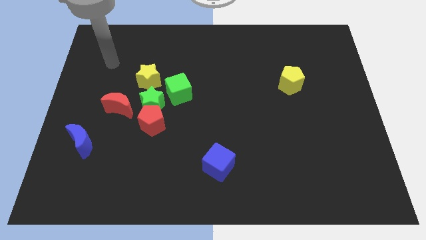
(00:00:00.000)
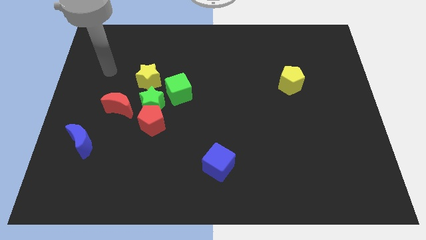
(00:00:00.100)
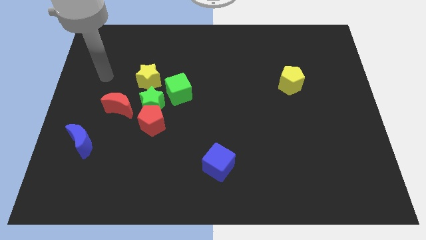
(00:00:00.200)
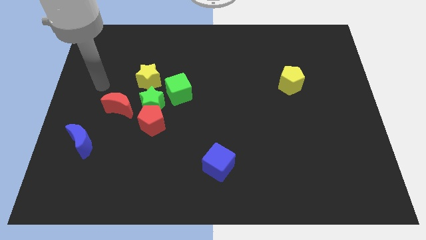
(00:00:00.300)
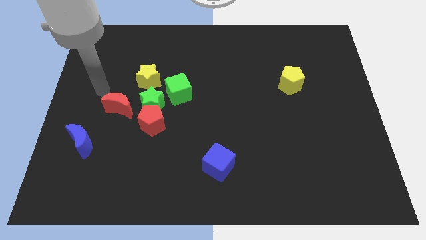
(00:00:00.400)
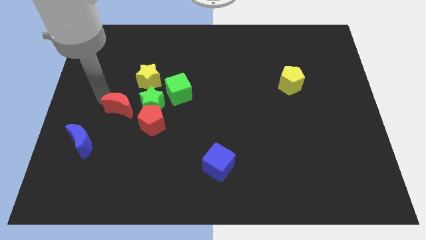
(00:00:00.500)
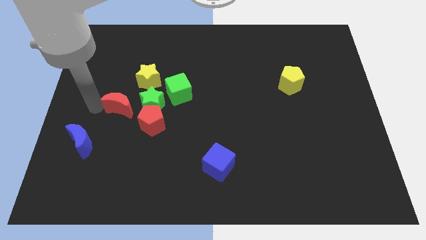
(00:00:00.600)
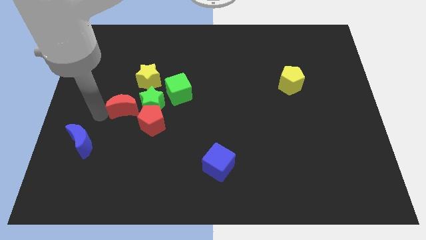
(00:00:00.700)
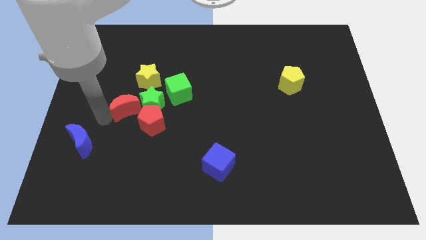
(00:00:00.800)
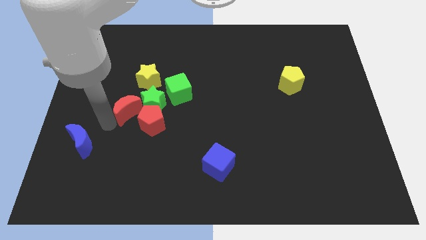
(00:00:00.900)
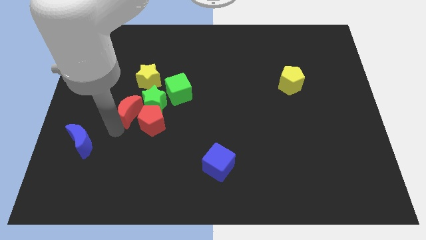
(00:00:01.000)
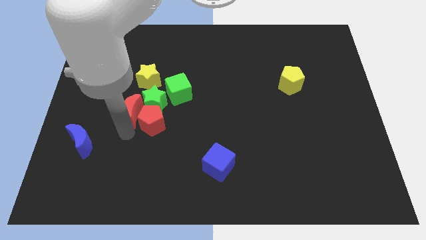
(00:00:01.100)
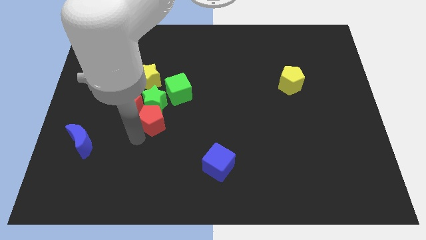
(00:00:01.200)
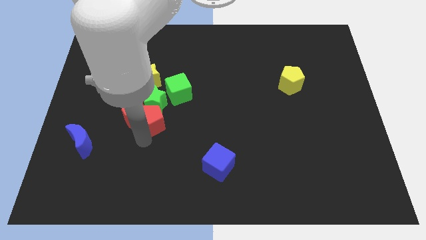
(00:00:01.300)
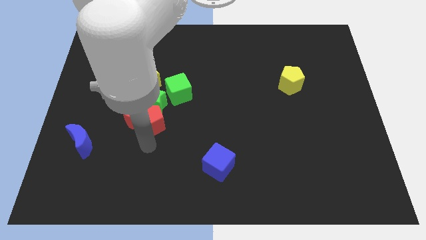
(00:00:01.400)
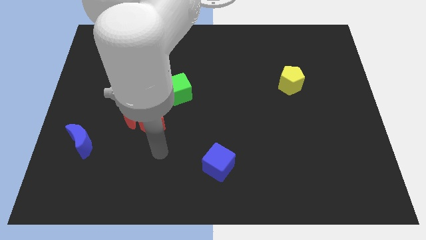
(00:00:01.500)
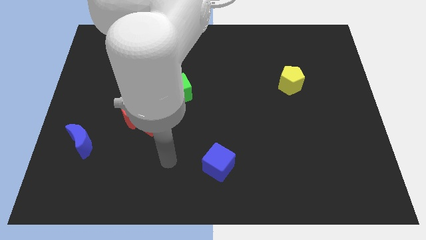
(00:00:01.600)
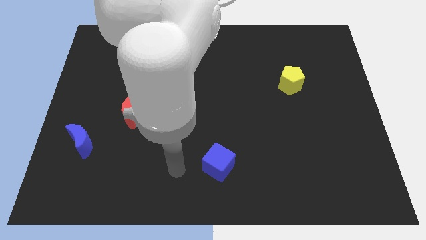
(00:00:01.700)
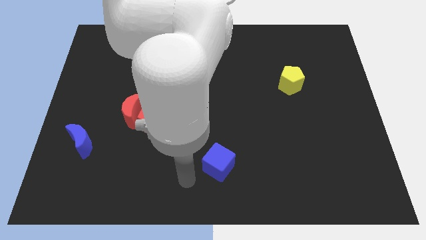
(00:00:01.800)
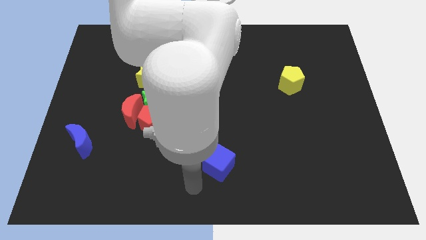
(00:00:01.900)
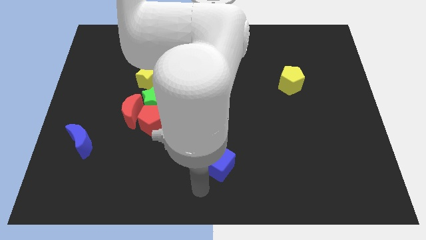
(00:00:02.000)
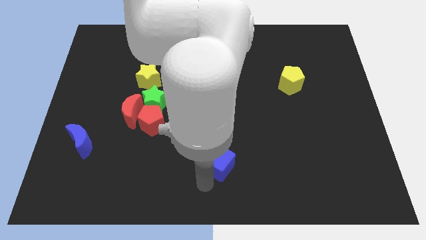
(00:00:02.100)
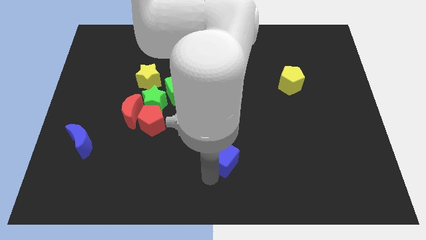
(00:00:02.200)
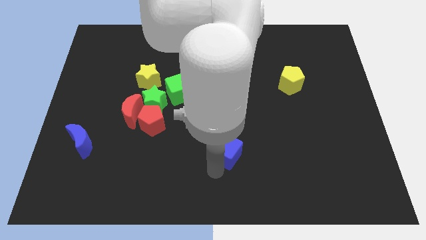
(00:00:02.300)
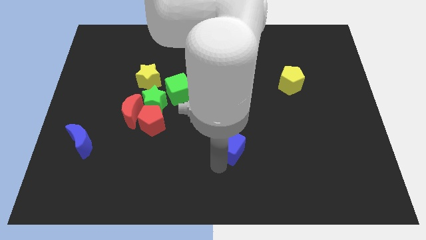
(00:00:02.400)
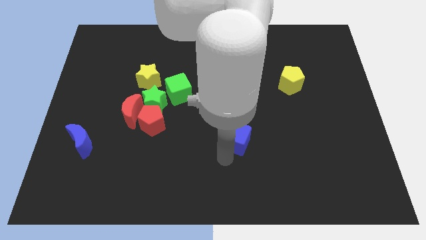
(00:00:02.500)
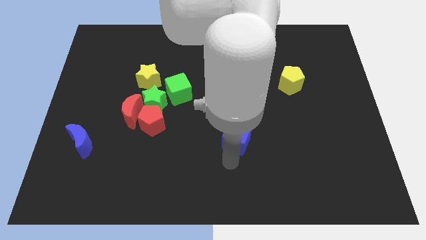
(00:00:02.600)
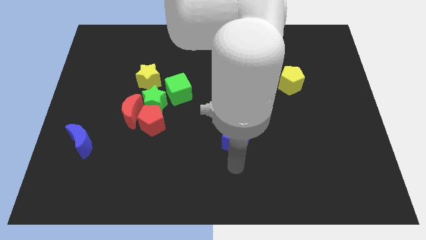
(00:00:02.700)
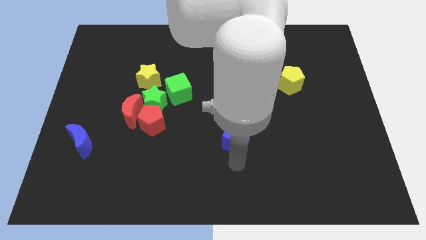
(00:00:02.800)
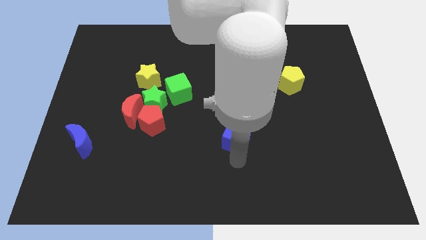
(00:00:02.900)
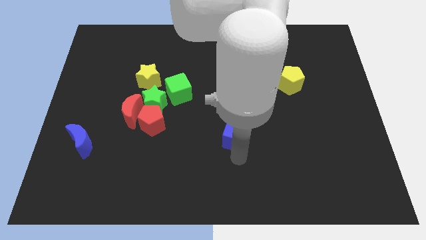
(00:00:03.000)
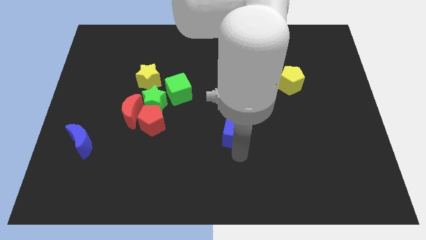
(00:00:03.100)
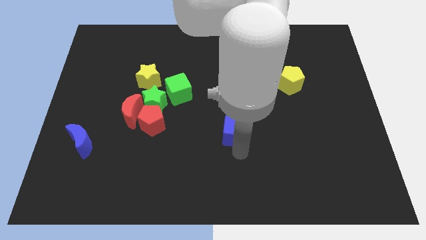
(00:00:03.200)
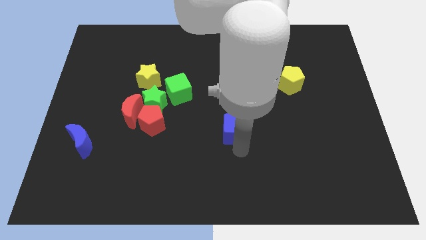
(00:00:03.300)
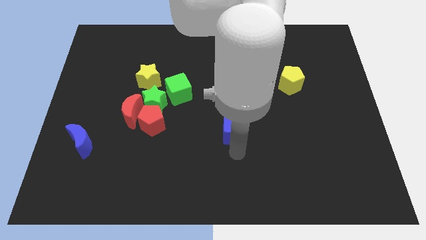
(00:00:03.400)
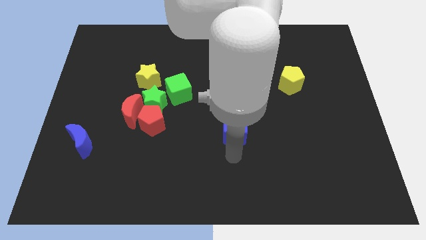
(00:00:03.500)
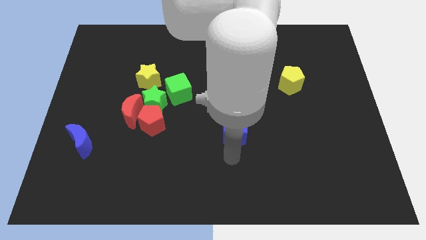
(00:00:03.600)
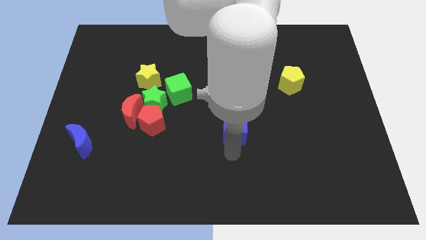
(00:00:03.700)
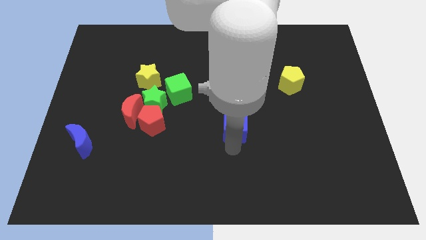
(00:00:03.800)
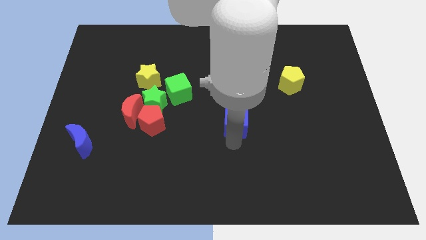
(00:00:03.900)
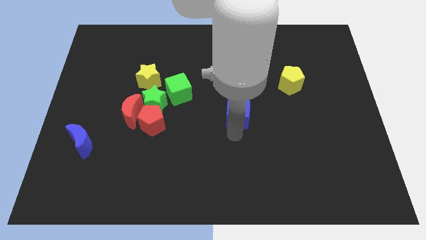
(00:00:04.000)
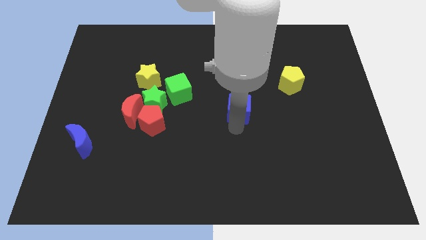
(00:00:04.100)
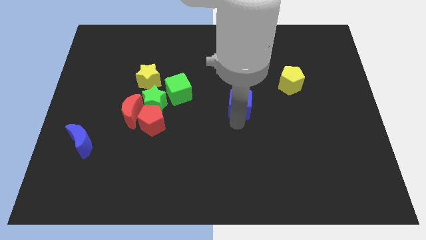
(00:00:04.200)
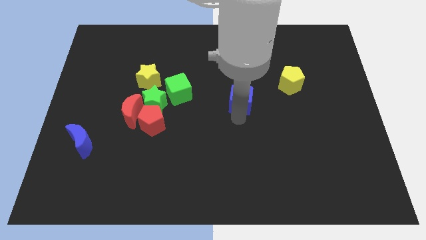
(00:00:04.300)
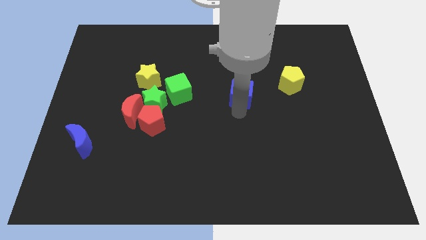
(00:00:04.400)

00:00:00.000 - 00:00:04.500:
move the blue cube left of the yellow pentagon

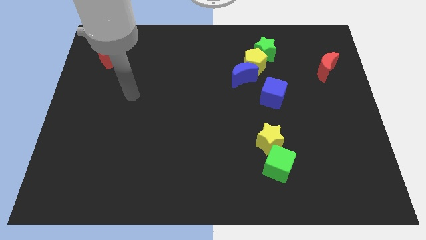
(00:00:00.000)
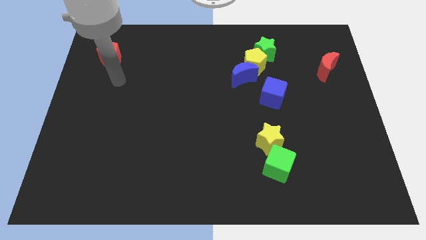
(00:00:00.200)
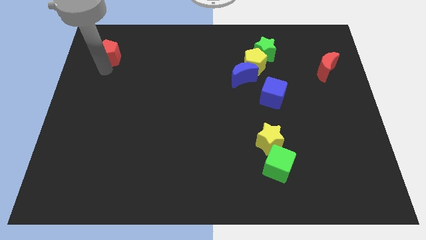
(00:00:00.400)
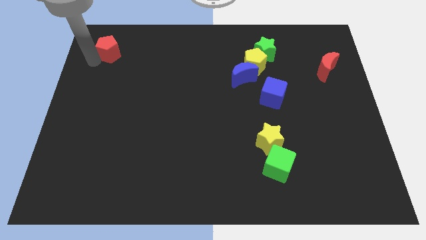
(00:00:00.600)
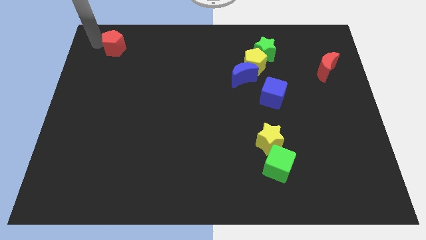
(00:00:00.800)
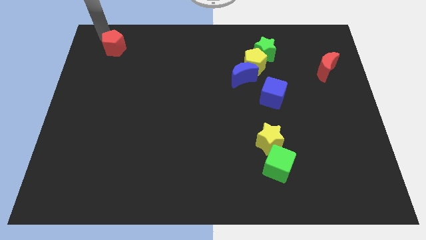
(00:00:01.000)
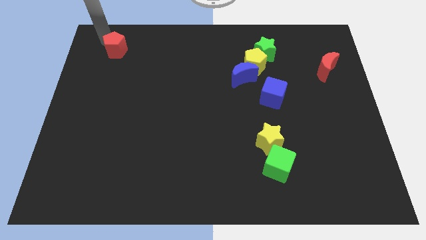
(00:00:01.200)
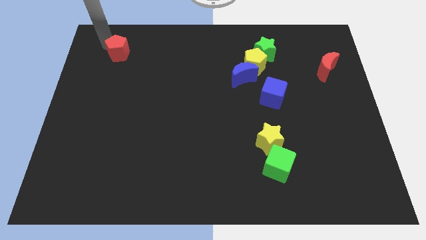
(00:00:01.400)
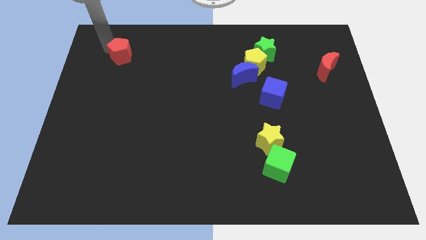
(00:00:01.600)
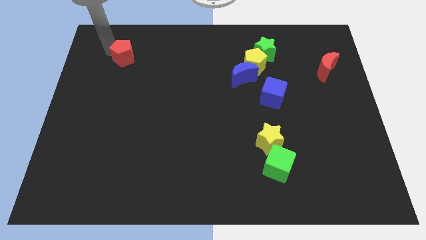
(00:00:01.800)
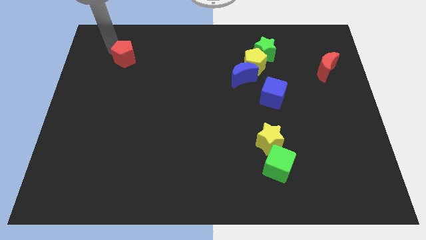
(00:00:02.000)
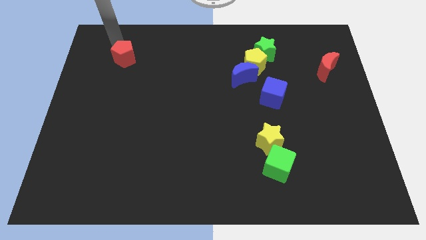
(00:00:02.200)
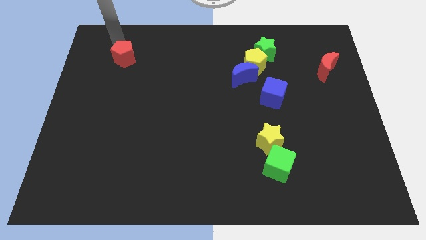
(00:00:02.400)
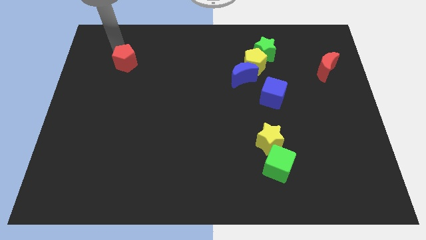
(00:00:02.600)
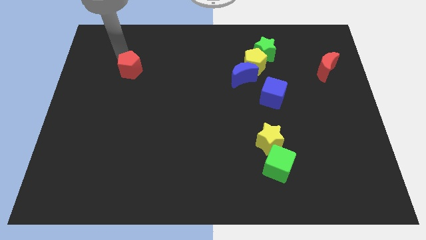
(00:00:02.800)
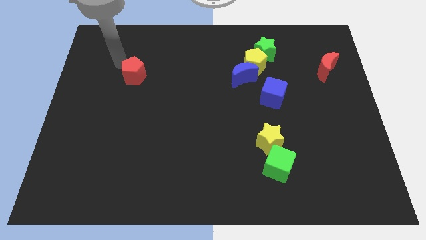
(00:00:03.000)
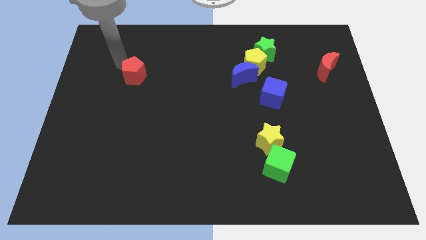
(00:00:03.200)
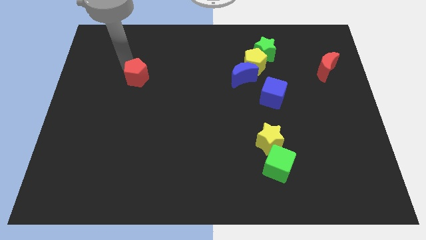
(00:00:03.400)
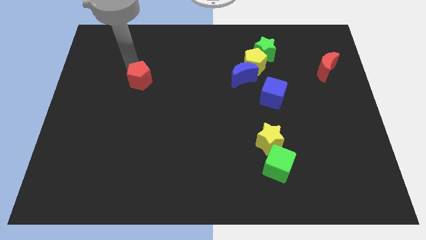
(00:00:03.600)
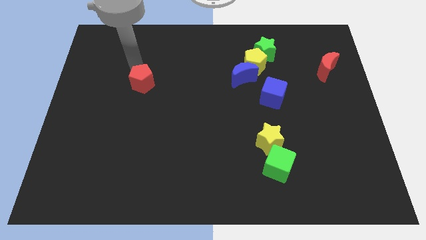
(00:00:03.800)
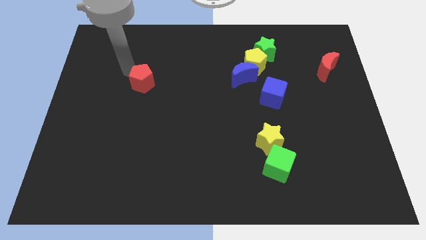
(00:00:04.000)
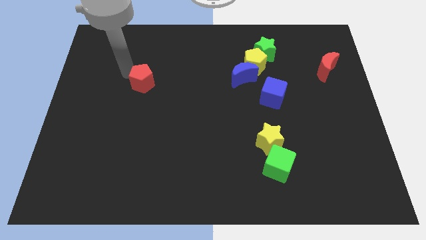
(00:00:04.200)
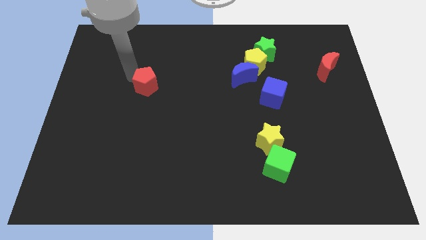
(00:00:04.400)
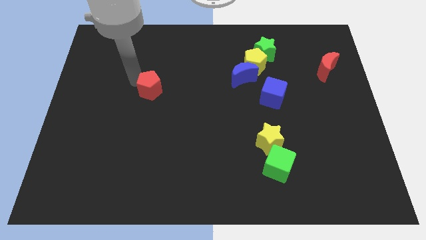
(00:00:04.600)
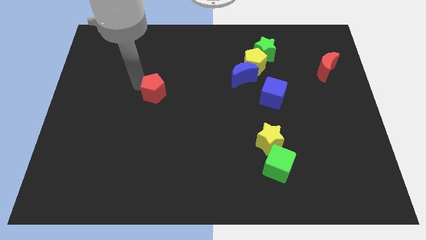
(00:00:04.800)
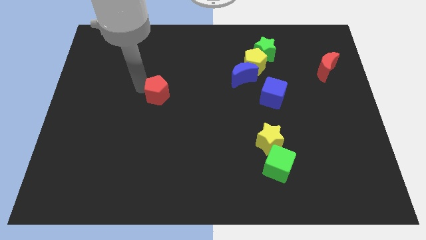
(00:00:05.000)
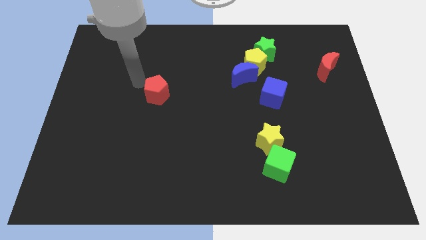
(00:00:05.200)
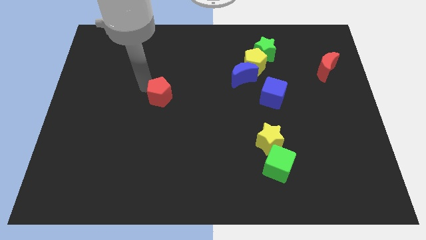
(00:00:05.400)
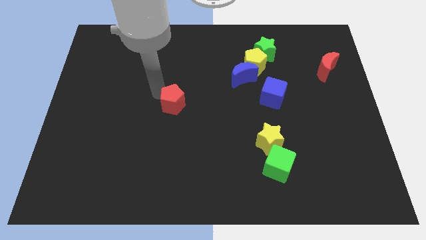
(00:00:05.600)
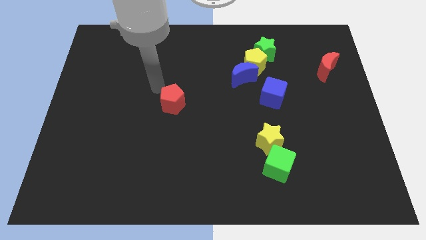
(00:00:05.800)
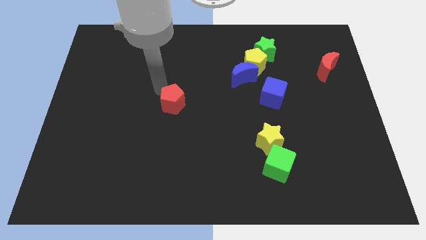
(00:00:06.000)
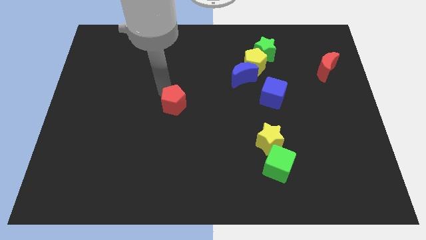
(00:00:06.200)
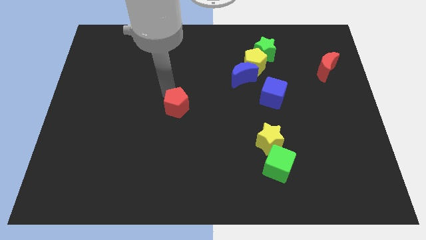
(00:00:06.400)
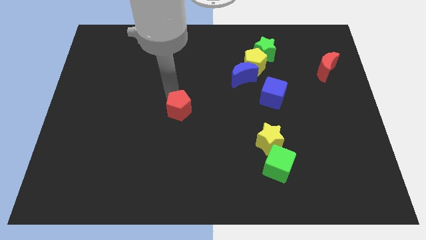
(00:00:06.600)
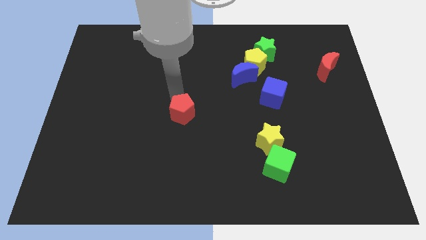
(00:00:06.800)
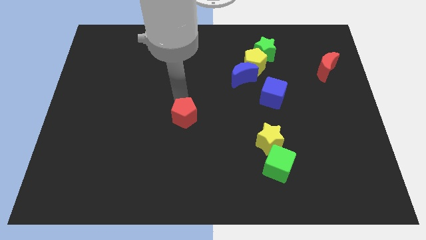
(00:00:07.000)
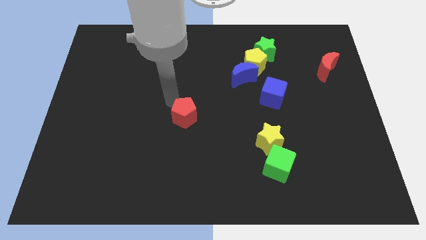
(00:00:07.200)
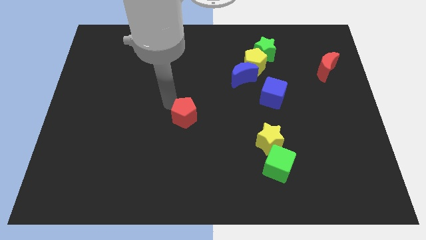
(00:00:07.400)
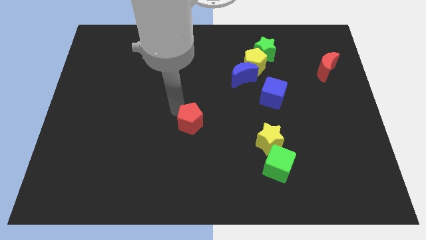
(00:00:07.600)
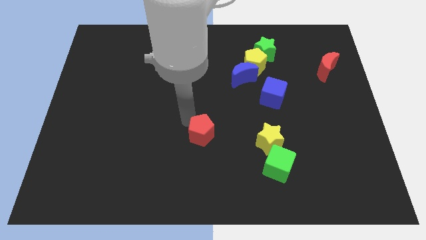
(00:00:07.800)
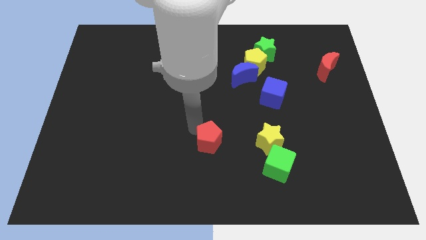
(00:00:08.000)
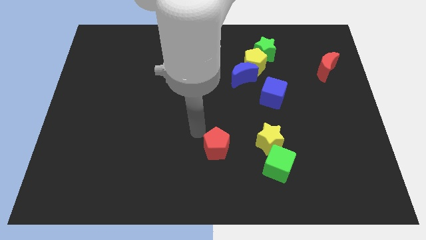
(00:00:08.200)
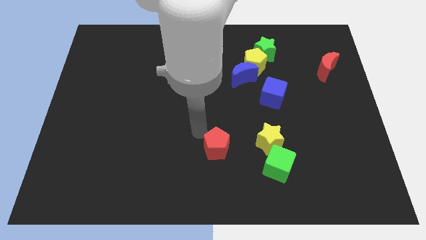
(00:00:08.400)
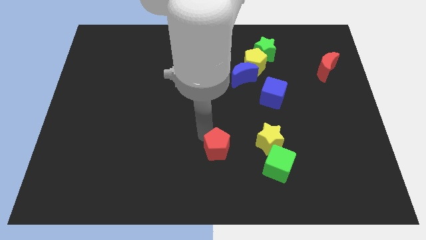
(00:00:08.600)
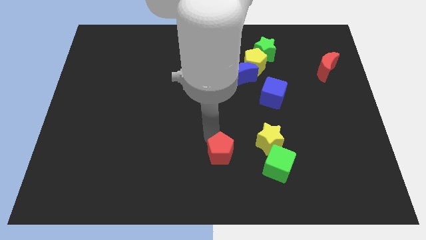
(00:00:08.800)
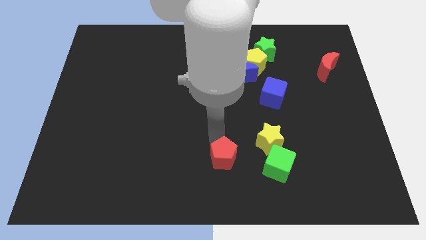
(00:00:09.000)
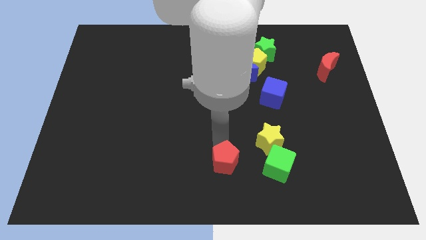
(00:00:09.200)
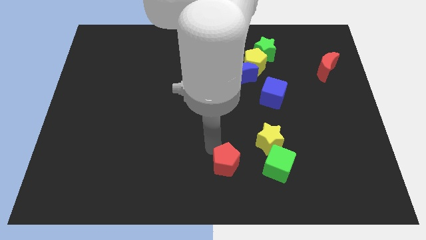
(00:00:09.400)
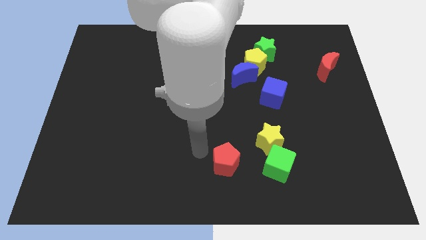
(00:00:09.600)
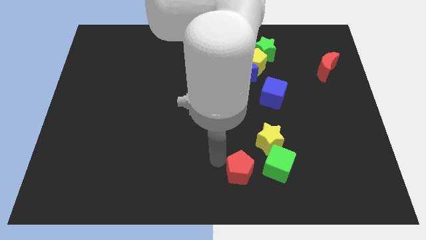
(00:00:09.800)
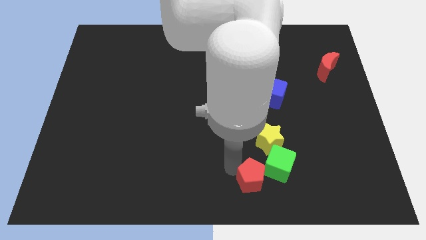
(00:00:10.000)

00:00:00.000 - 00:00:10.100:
move the red pentagon to the bottom side of the yellow star
